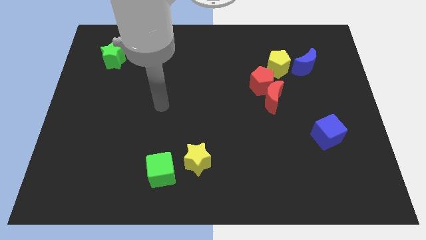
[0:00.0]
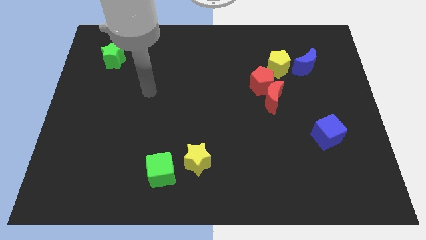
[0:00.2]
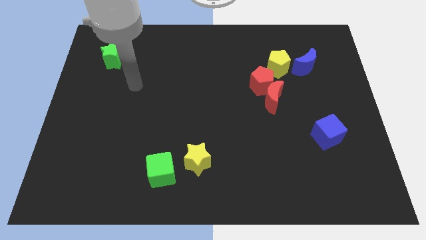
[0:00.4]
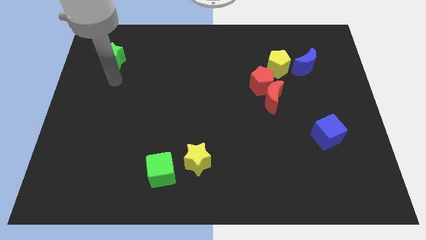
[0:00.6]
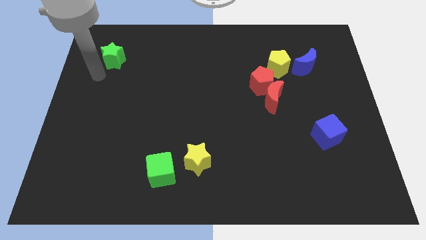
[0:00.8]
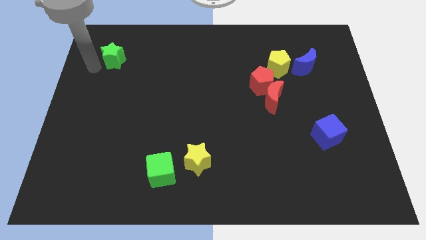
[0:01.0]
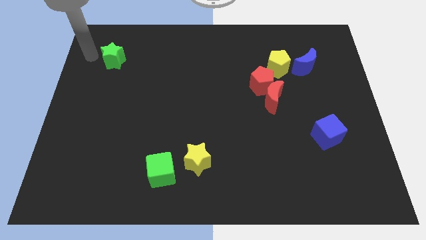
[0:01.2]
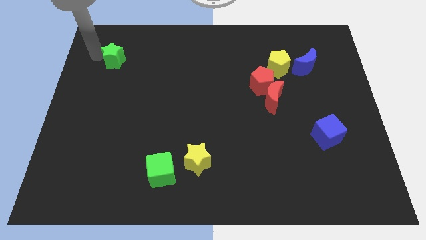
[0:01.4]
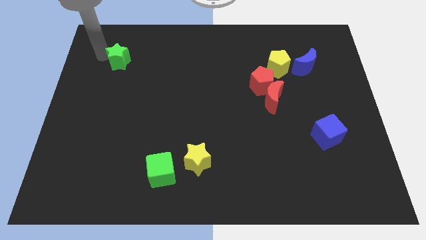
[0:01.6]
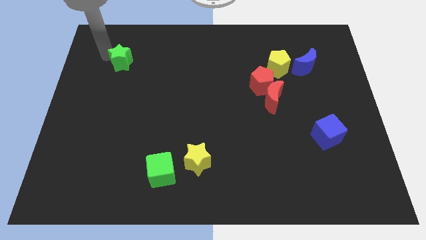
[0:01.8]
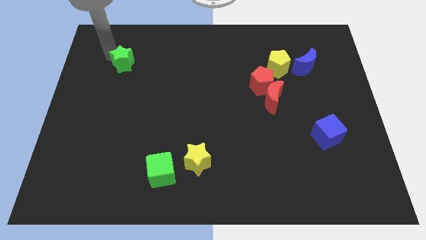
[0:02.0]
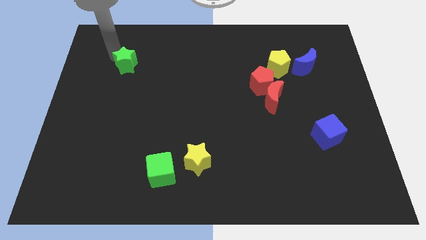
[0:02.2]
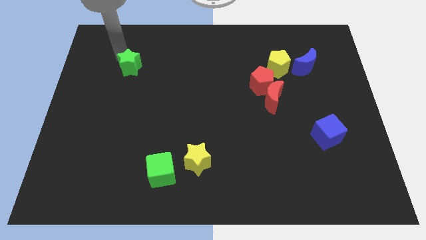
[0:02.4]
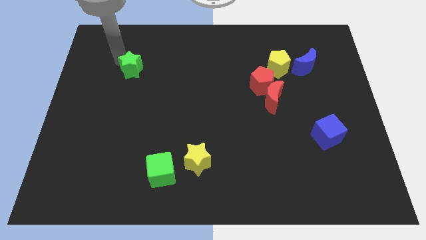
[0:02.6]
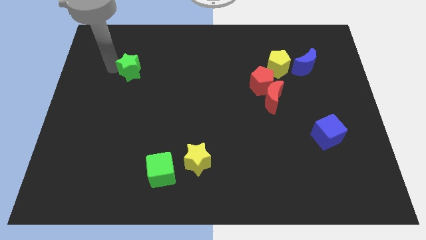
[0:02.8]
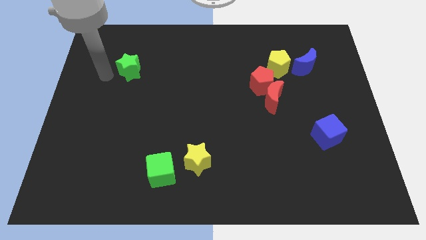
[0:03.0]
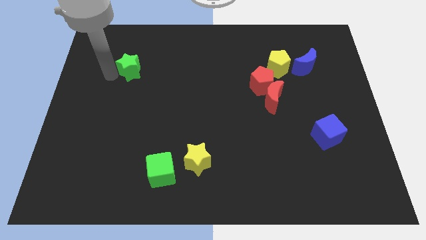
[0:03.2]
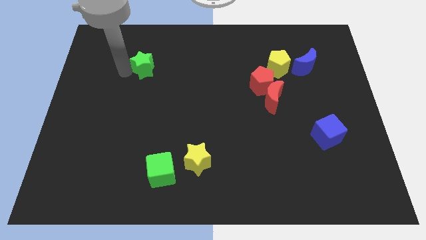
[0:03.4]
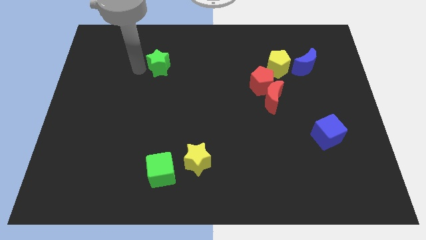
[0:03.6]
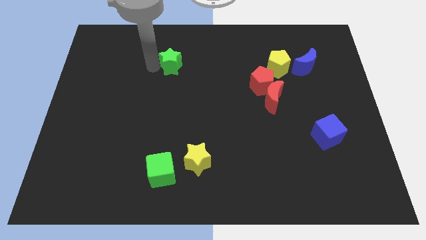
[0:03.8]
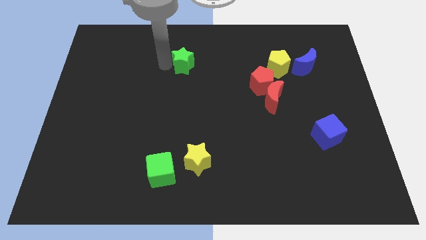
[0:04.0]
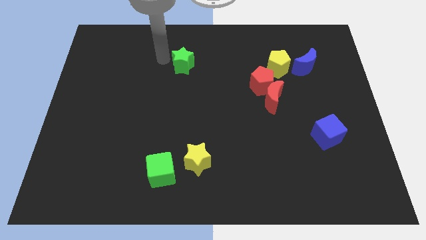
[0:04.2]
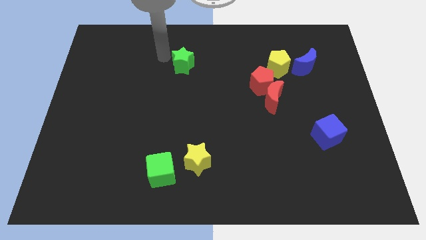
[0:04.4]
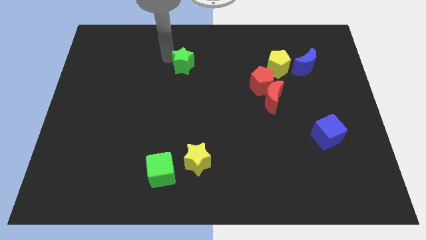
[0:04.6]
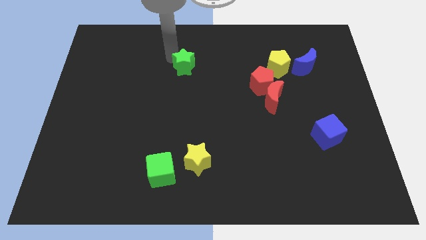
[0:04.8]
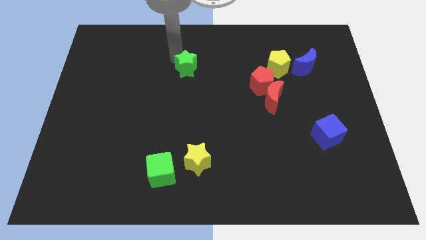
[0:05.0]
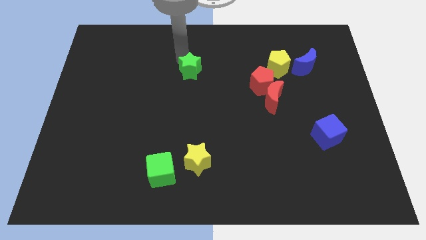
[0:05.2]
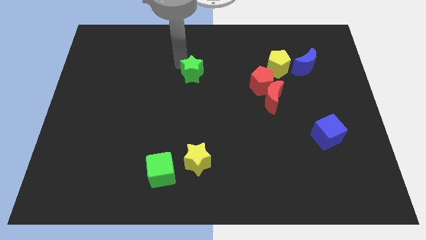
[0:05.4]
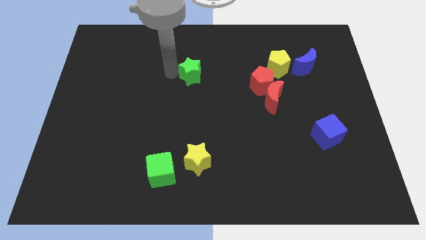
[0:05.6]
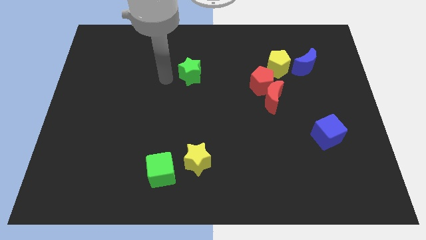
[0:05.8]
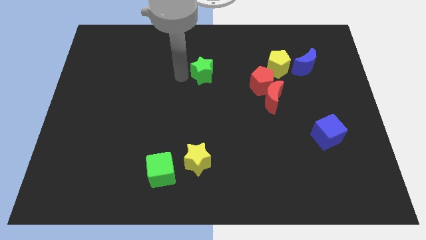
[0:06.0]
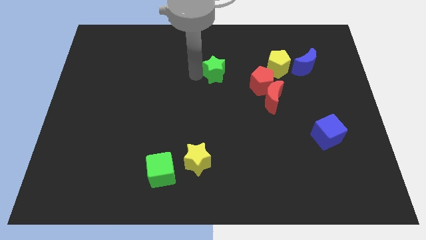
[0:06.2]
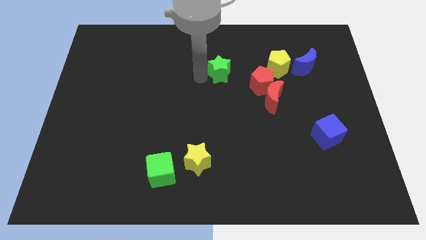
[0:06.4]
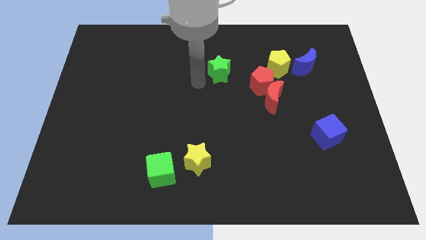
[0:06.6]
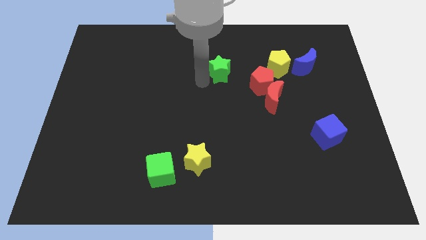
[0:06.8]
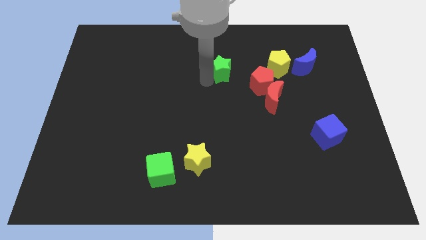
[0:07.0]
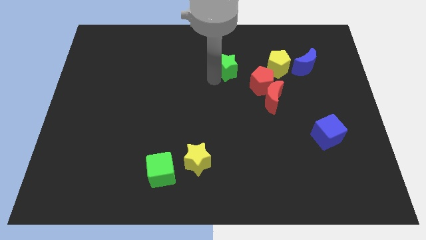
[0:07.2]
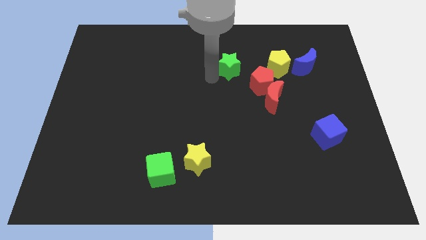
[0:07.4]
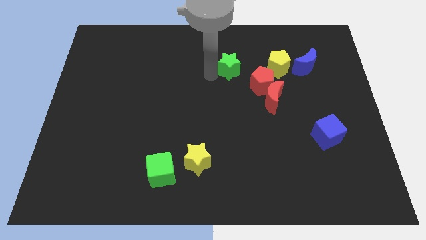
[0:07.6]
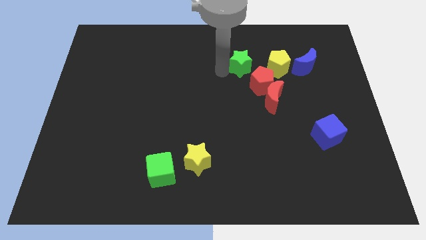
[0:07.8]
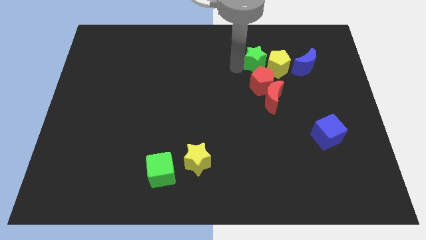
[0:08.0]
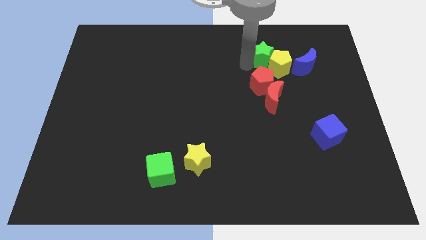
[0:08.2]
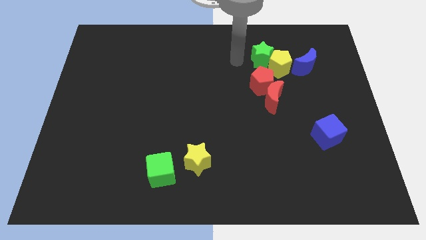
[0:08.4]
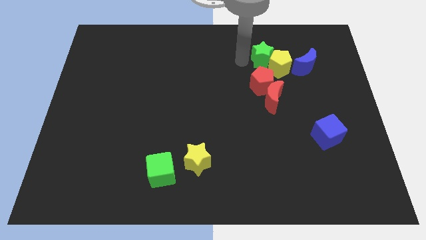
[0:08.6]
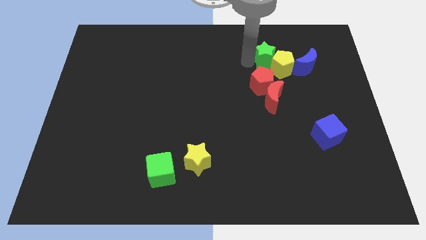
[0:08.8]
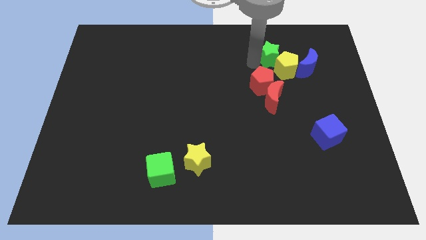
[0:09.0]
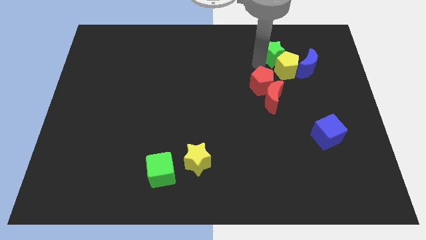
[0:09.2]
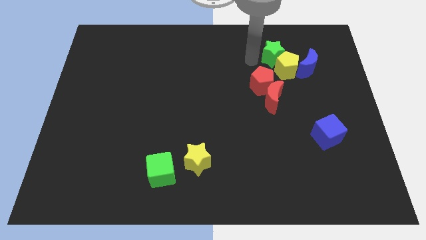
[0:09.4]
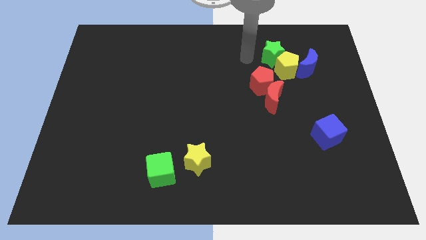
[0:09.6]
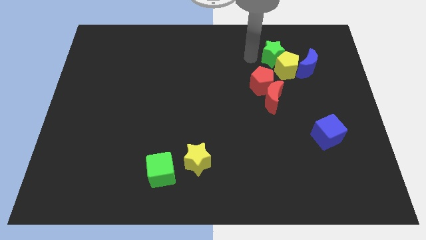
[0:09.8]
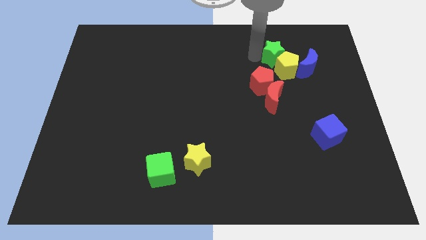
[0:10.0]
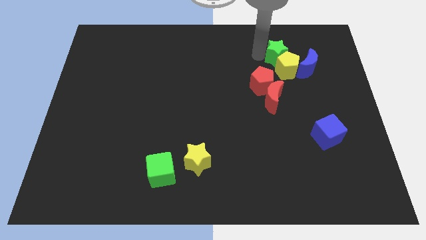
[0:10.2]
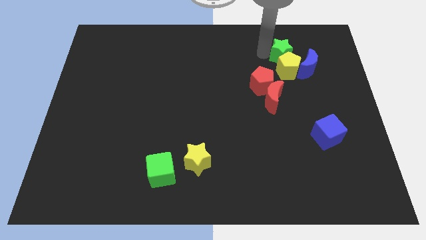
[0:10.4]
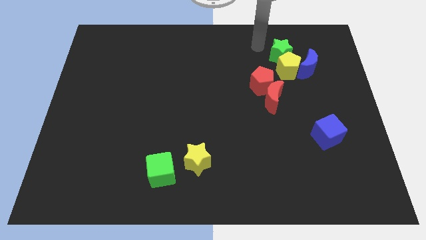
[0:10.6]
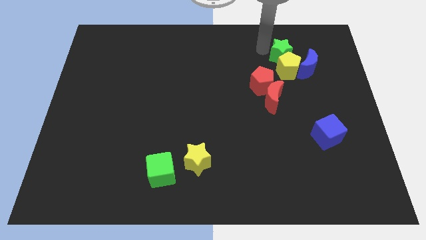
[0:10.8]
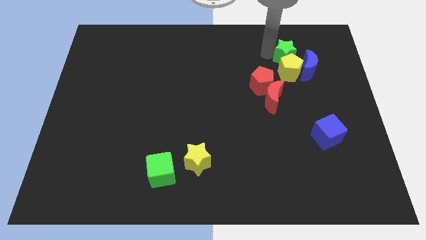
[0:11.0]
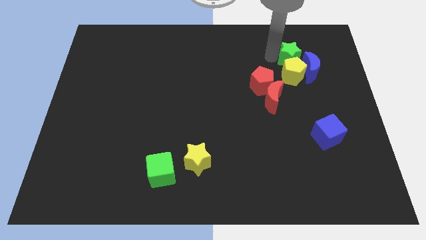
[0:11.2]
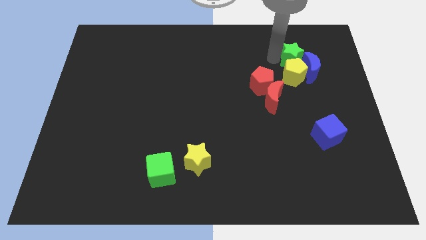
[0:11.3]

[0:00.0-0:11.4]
move the green star next to the blue moon

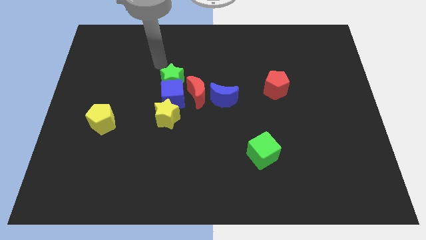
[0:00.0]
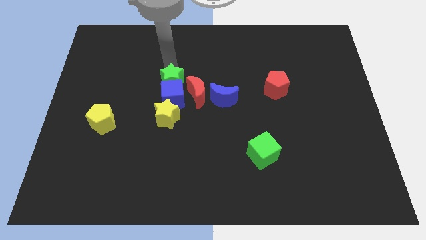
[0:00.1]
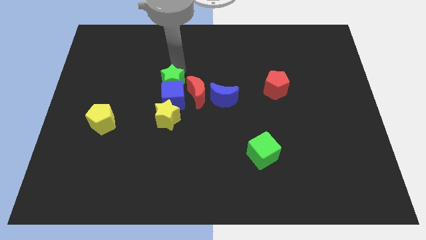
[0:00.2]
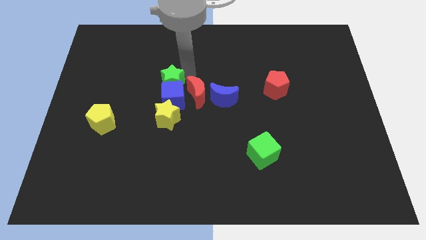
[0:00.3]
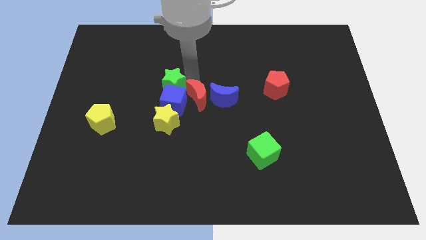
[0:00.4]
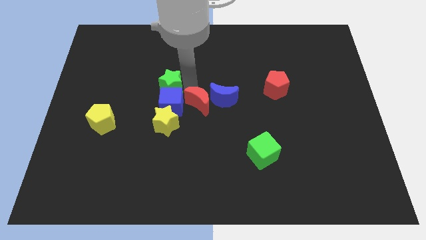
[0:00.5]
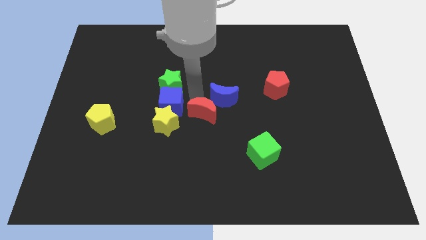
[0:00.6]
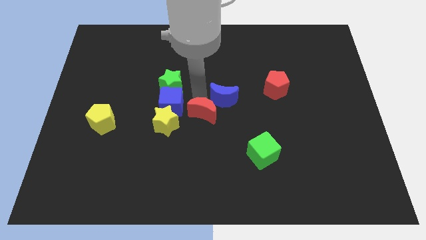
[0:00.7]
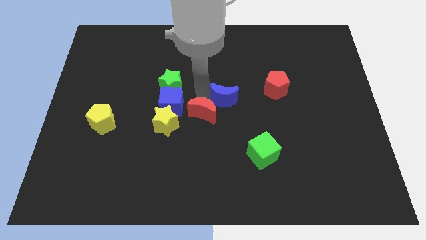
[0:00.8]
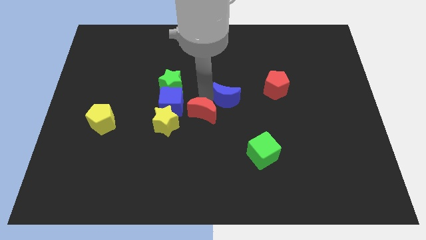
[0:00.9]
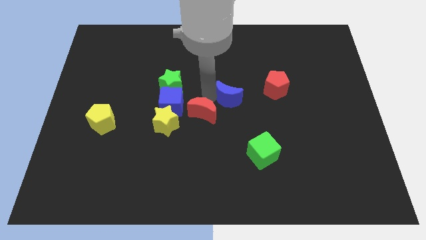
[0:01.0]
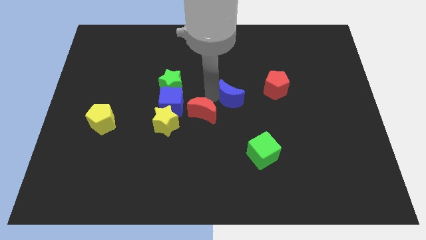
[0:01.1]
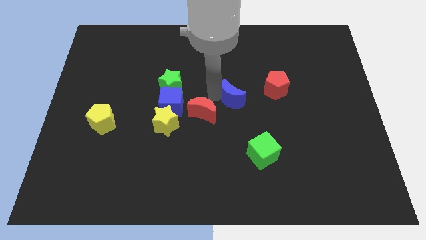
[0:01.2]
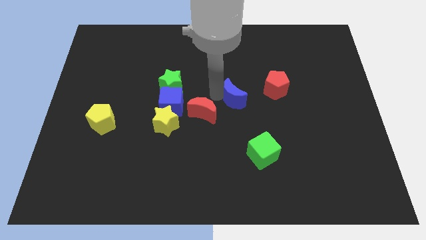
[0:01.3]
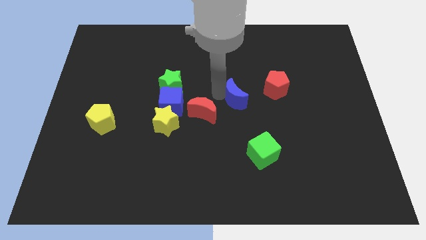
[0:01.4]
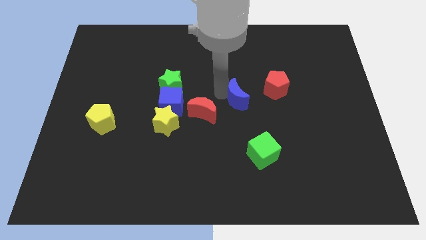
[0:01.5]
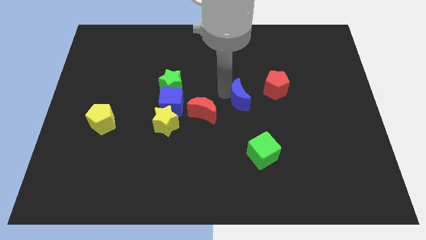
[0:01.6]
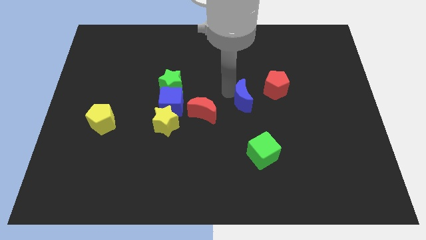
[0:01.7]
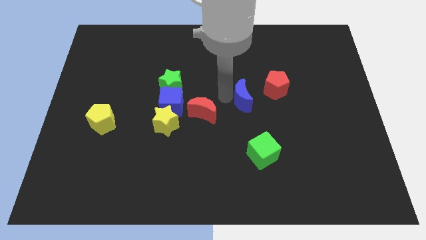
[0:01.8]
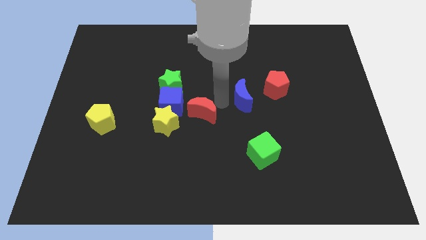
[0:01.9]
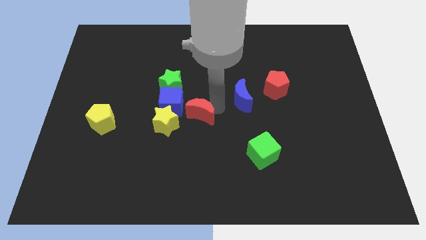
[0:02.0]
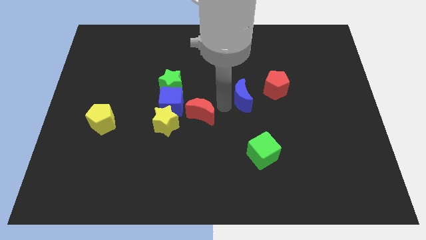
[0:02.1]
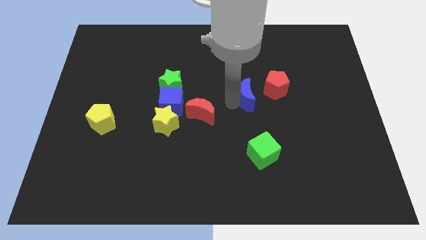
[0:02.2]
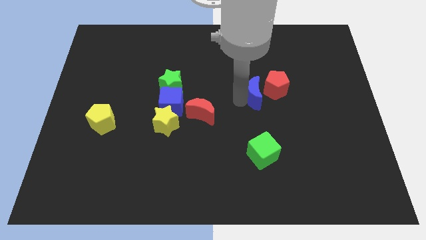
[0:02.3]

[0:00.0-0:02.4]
move the blue moon towards the red pentagon
